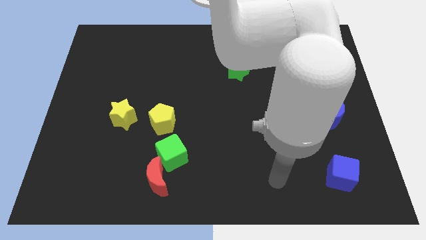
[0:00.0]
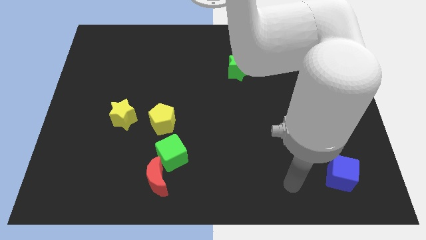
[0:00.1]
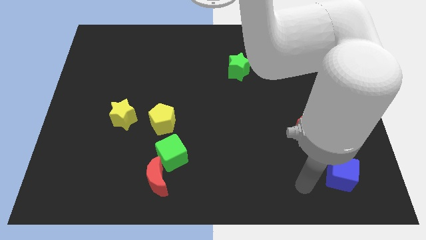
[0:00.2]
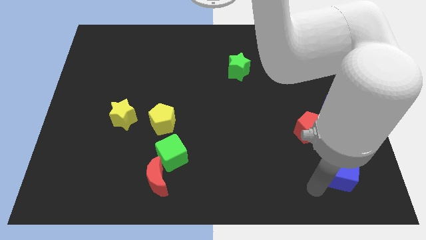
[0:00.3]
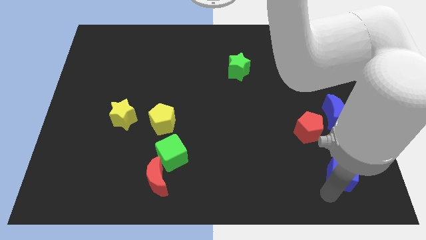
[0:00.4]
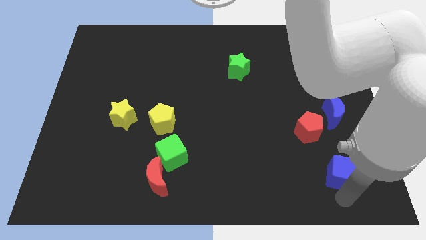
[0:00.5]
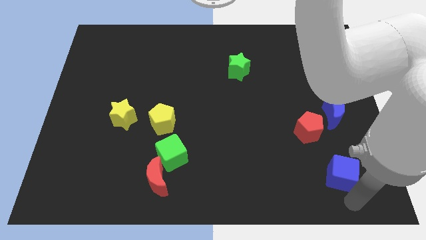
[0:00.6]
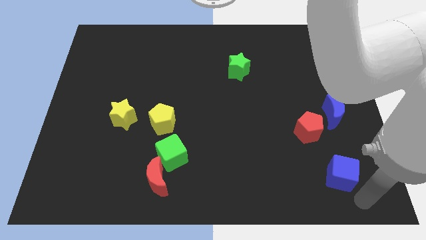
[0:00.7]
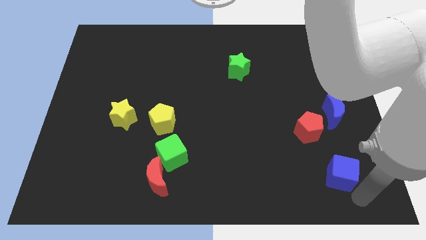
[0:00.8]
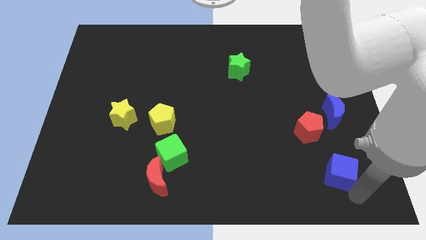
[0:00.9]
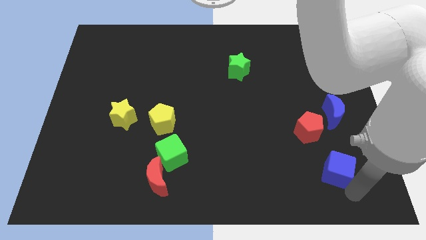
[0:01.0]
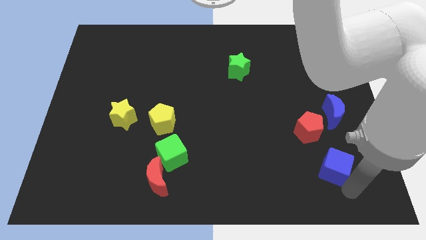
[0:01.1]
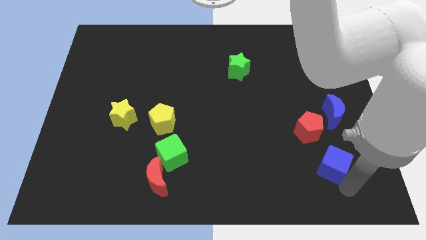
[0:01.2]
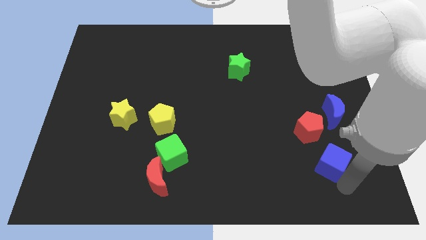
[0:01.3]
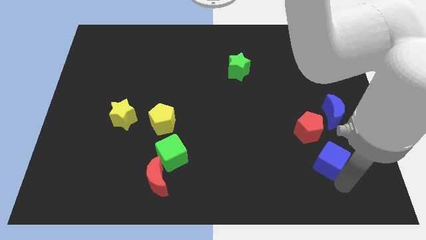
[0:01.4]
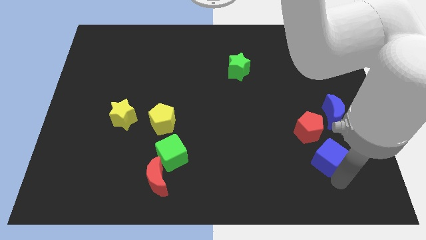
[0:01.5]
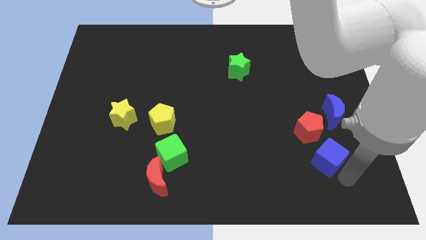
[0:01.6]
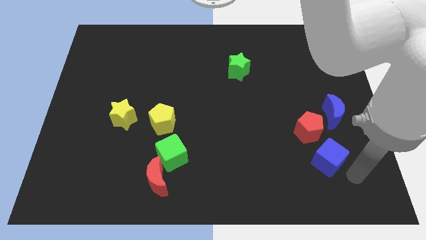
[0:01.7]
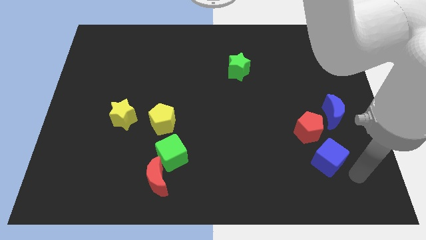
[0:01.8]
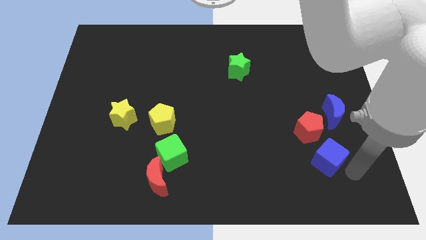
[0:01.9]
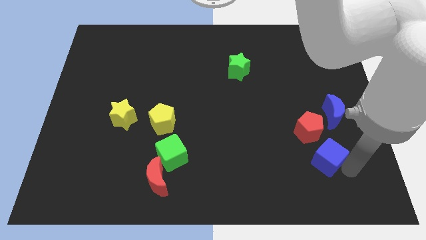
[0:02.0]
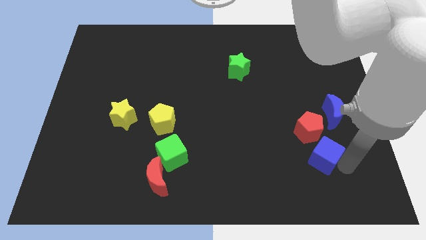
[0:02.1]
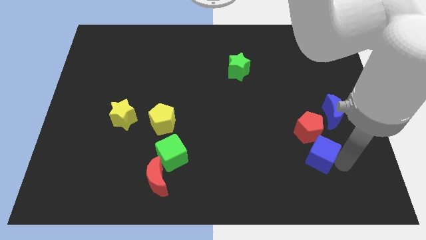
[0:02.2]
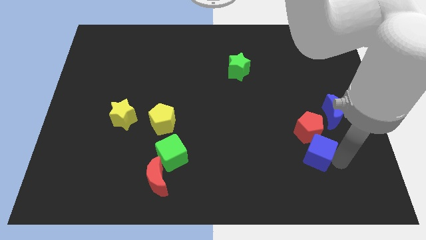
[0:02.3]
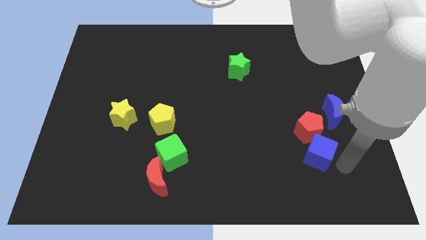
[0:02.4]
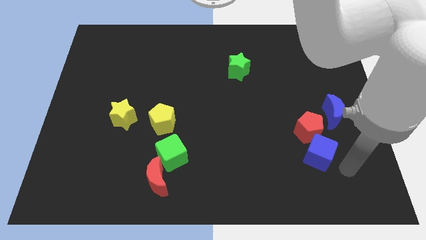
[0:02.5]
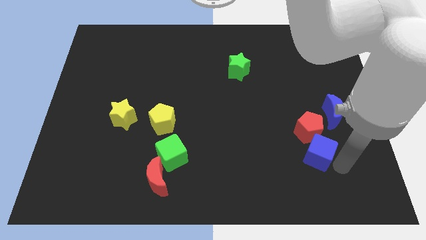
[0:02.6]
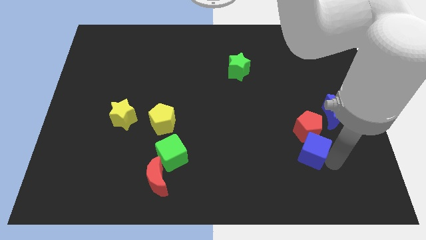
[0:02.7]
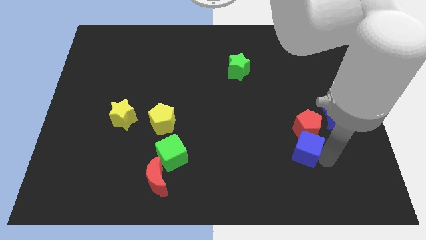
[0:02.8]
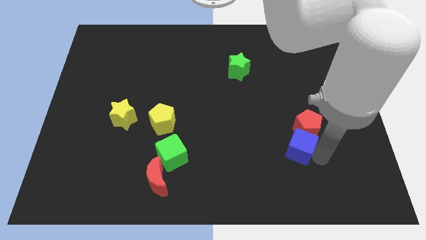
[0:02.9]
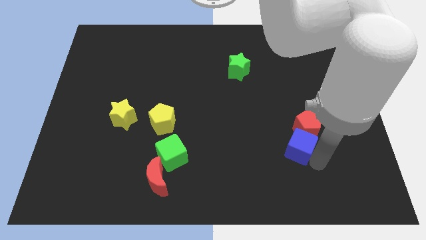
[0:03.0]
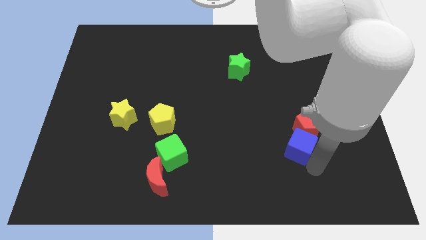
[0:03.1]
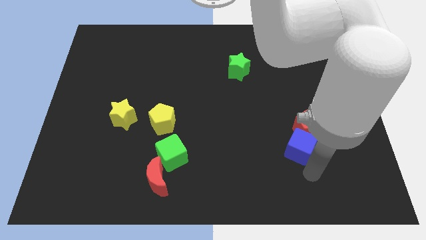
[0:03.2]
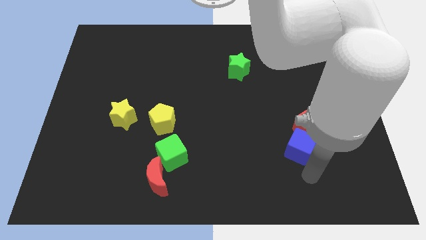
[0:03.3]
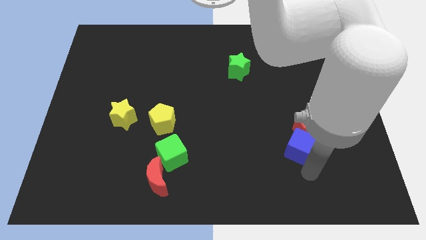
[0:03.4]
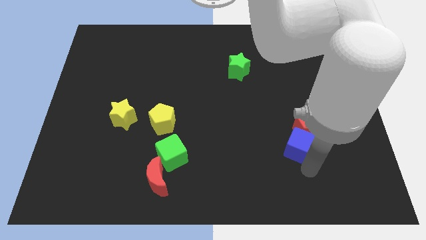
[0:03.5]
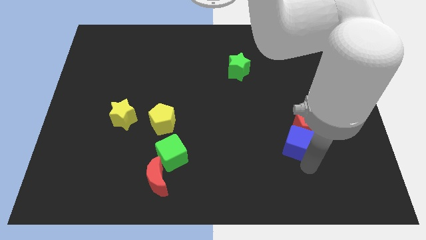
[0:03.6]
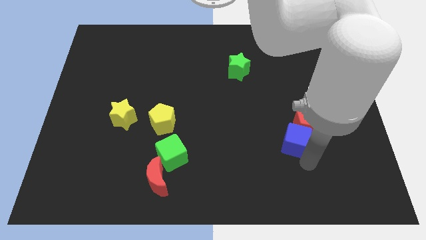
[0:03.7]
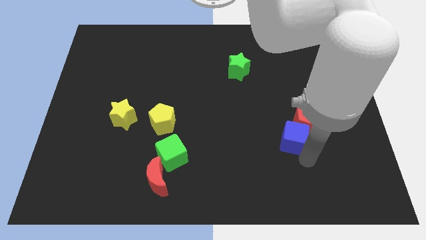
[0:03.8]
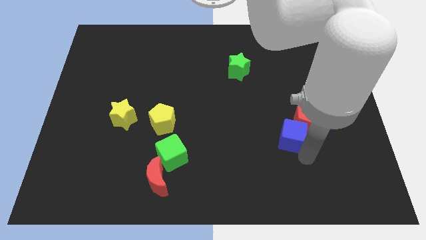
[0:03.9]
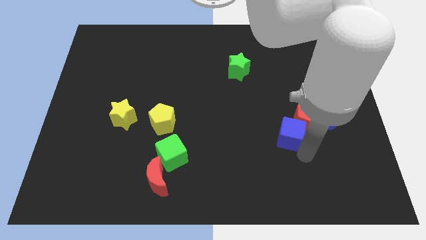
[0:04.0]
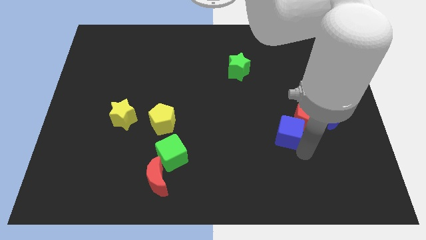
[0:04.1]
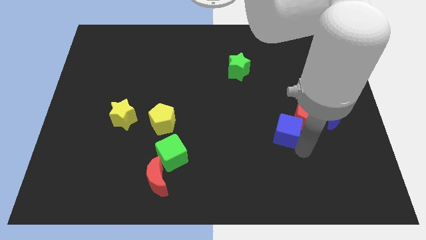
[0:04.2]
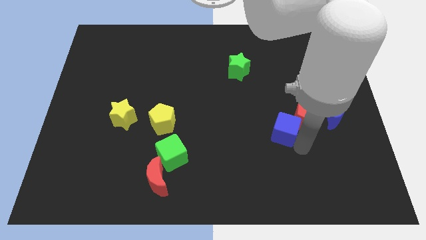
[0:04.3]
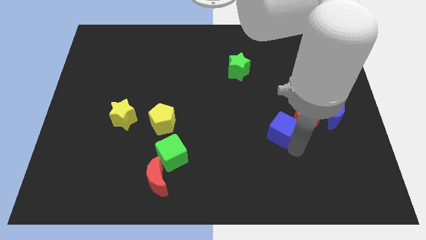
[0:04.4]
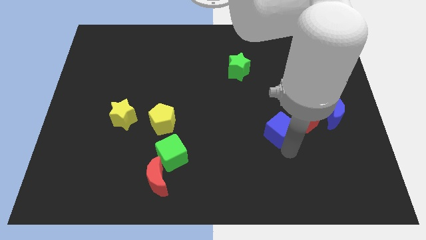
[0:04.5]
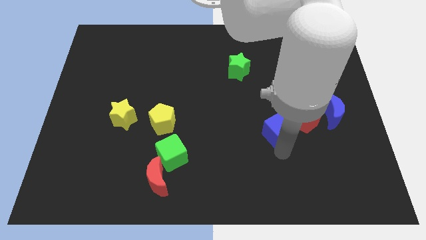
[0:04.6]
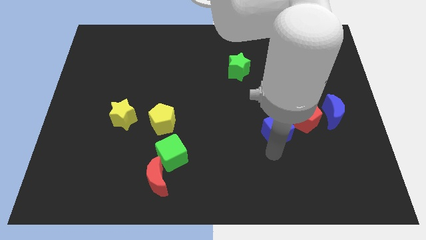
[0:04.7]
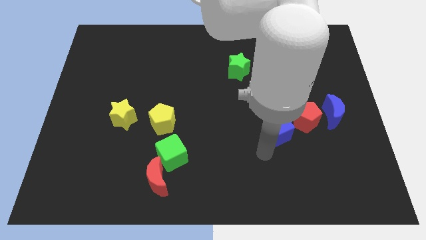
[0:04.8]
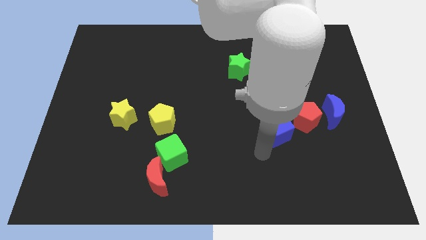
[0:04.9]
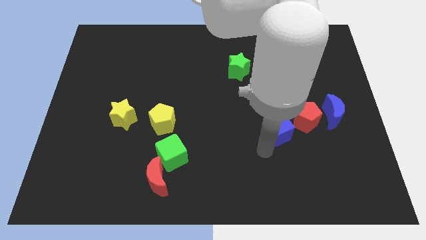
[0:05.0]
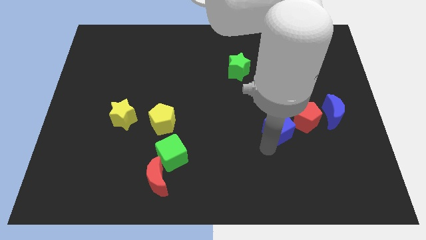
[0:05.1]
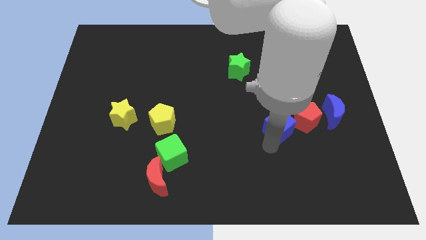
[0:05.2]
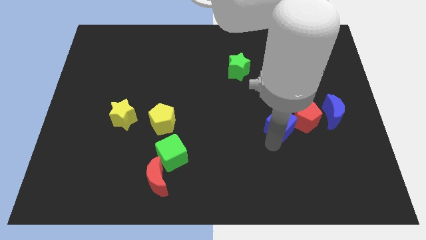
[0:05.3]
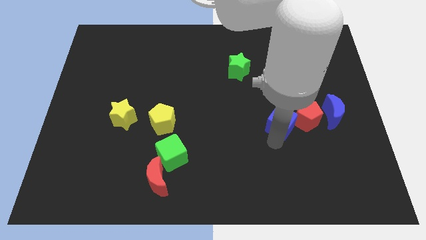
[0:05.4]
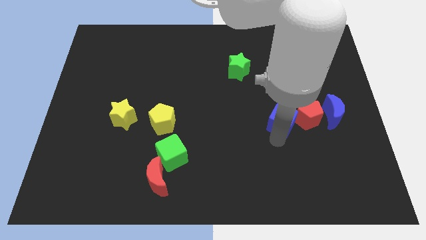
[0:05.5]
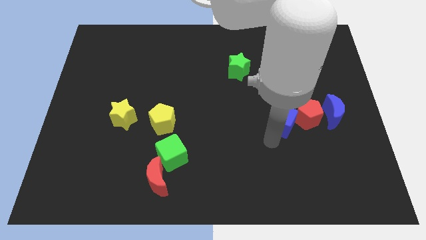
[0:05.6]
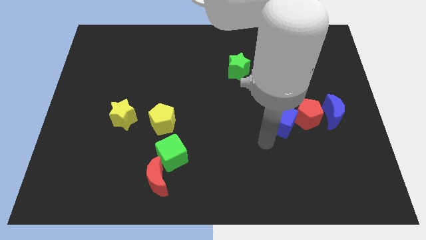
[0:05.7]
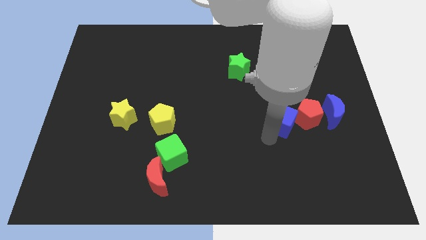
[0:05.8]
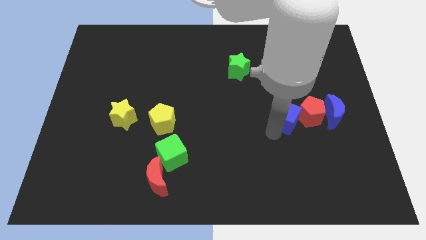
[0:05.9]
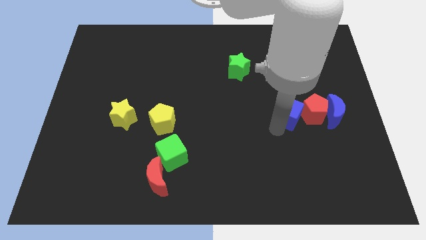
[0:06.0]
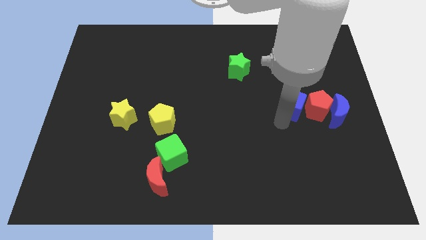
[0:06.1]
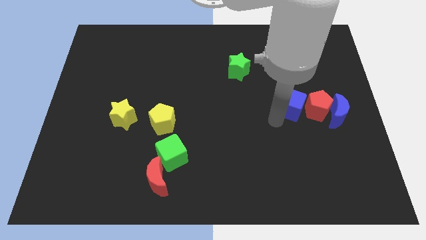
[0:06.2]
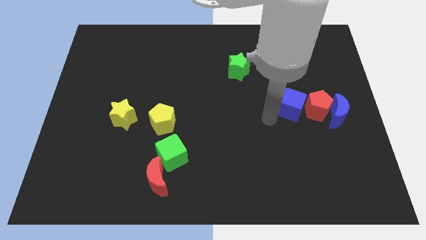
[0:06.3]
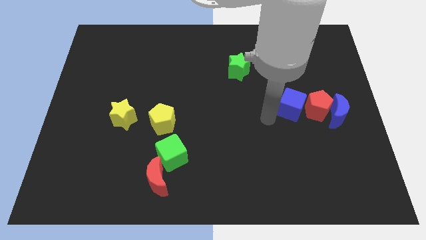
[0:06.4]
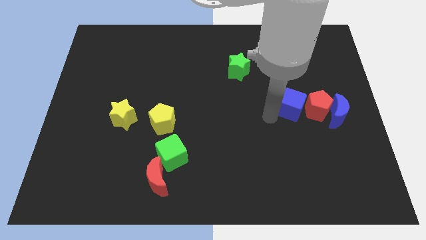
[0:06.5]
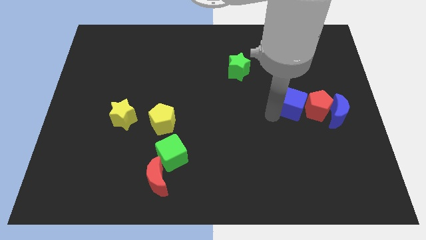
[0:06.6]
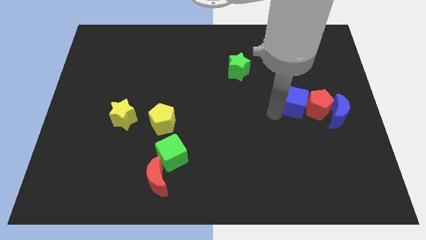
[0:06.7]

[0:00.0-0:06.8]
put the blue cube diagonally up and to the left of the blue moon
